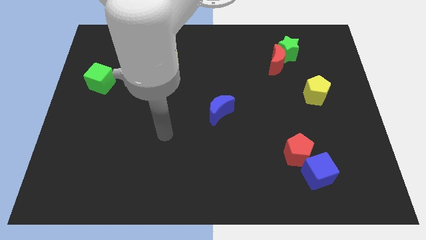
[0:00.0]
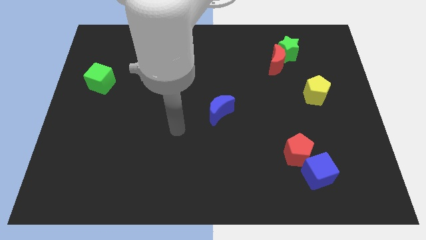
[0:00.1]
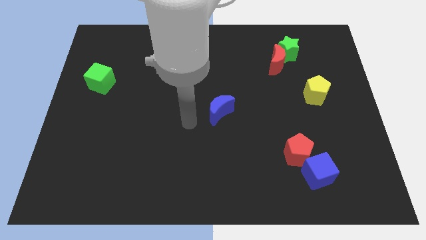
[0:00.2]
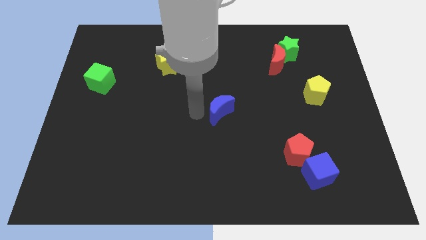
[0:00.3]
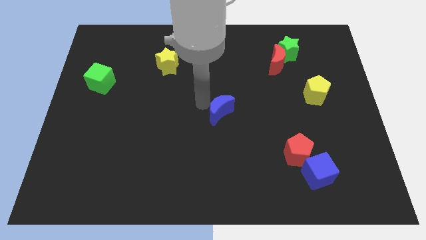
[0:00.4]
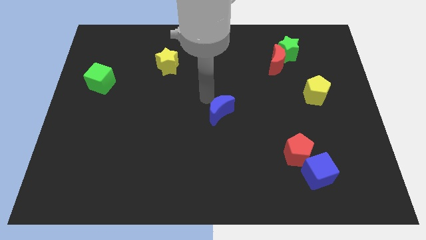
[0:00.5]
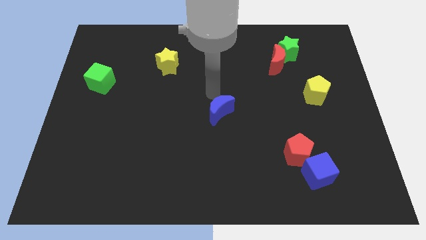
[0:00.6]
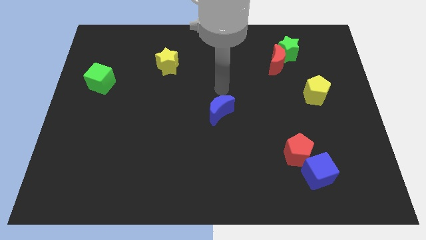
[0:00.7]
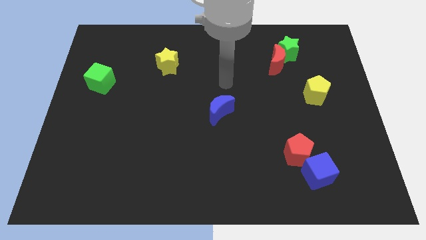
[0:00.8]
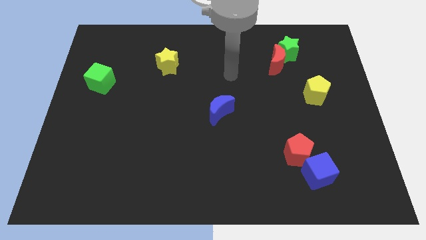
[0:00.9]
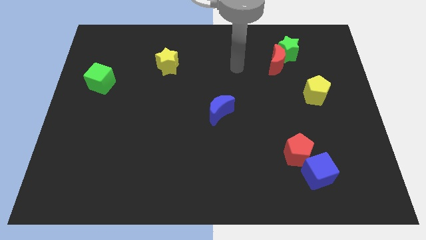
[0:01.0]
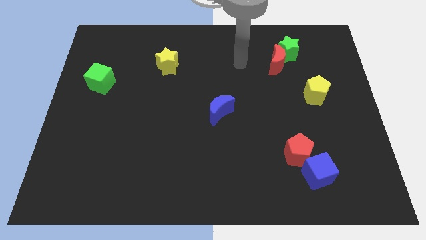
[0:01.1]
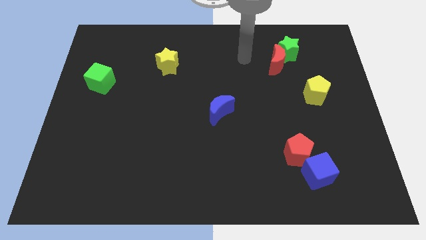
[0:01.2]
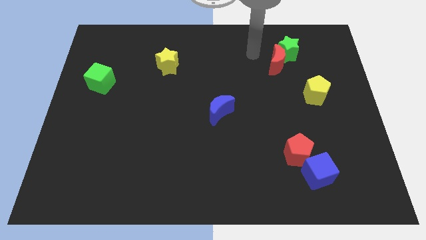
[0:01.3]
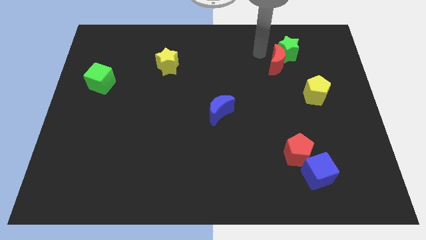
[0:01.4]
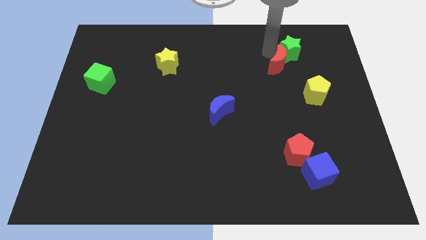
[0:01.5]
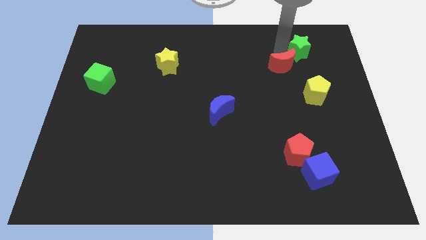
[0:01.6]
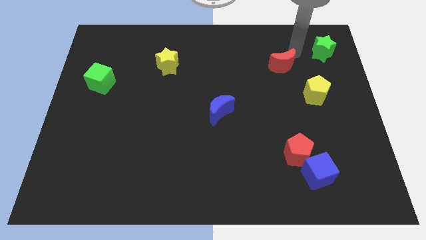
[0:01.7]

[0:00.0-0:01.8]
separate the red moon from the green star

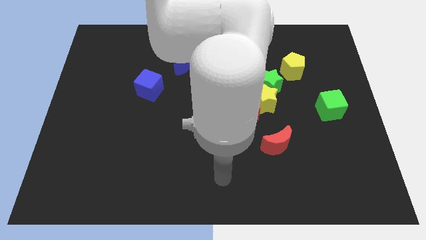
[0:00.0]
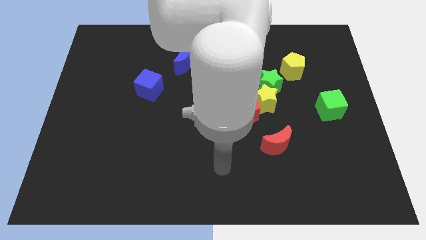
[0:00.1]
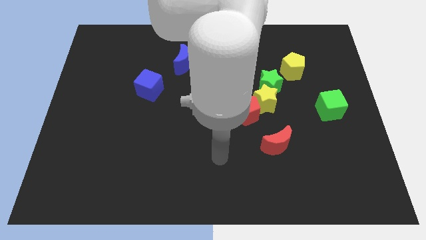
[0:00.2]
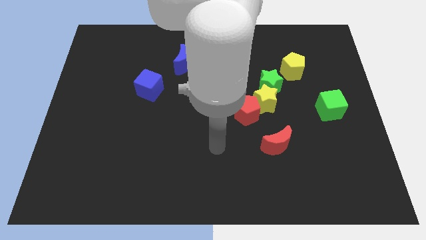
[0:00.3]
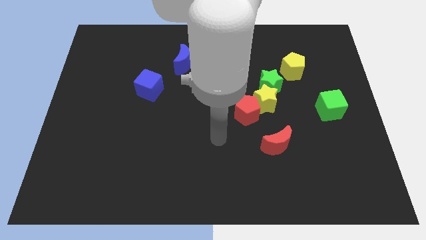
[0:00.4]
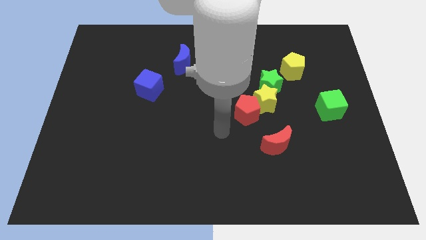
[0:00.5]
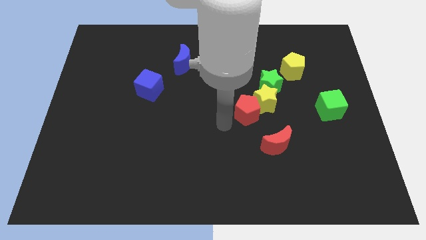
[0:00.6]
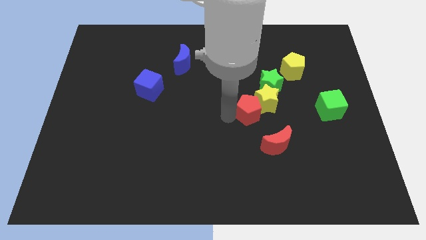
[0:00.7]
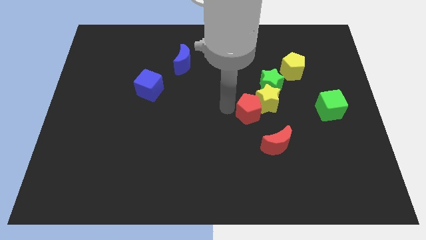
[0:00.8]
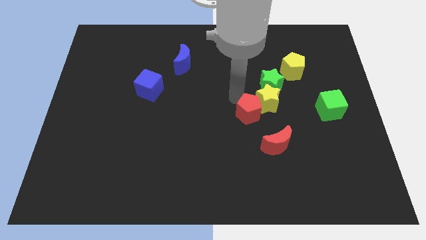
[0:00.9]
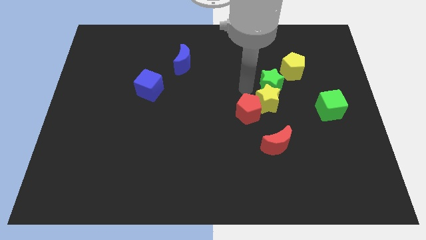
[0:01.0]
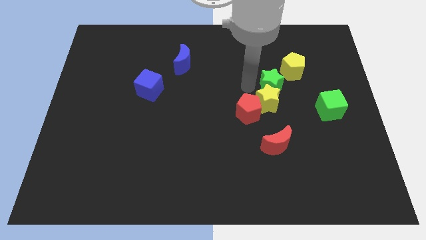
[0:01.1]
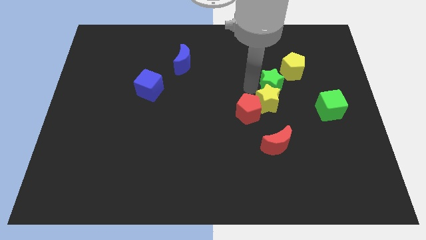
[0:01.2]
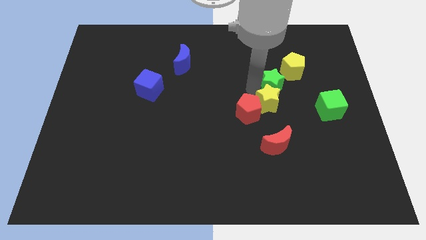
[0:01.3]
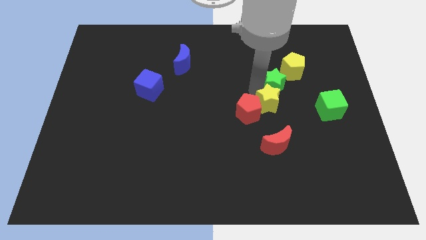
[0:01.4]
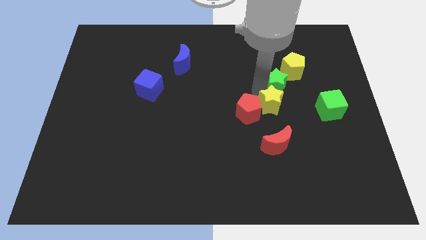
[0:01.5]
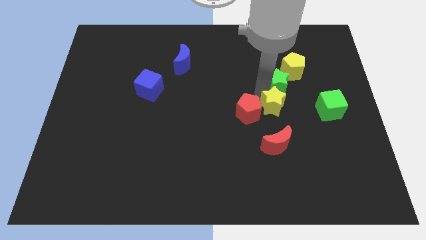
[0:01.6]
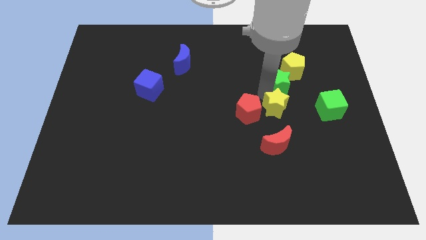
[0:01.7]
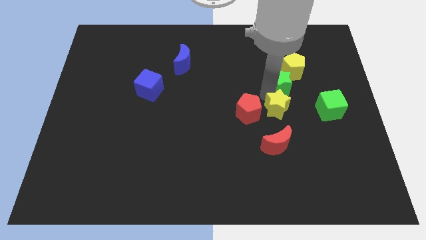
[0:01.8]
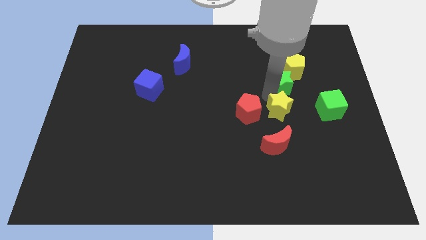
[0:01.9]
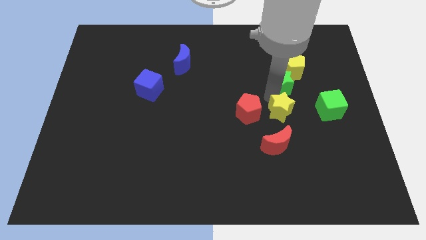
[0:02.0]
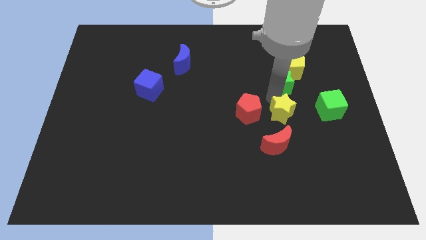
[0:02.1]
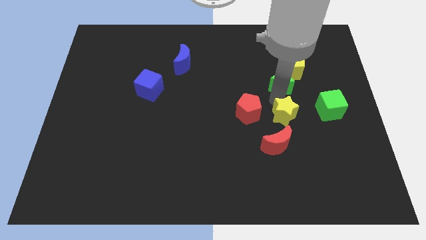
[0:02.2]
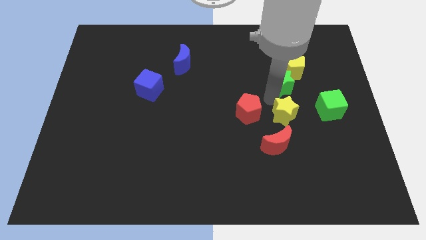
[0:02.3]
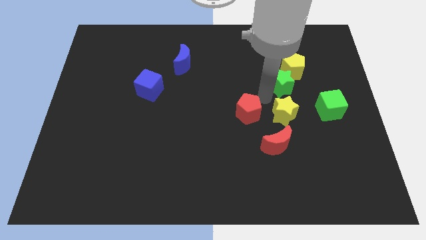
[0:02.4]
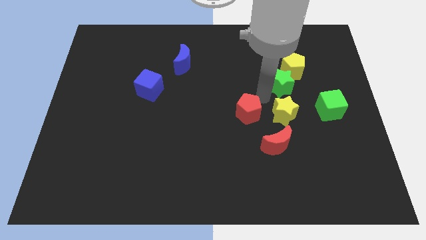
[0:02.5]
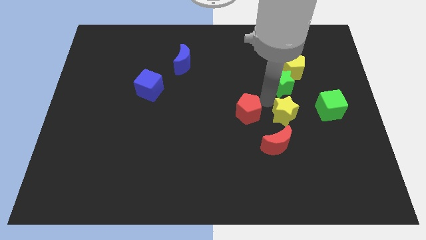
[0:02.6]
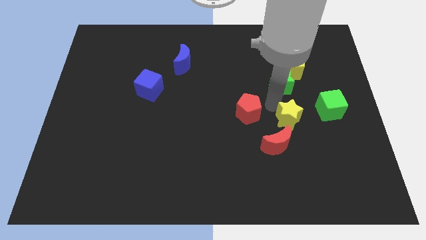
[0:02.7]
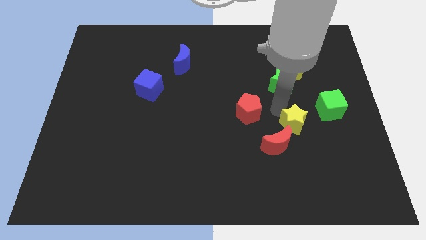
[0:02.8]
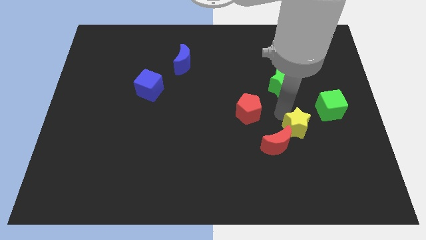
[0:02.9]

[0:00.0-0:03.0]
pull the yellow star apart from the green star and red pentagon

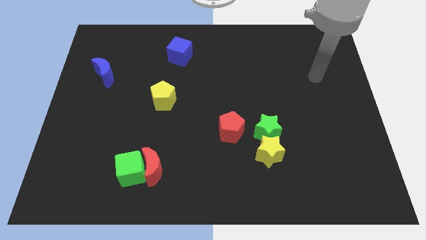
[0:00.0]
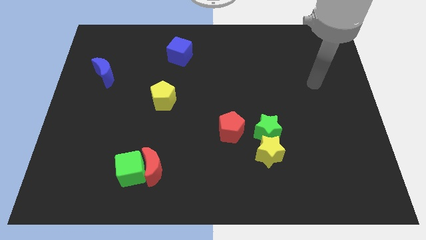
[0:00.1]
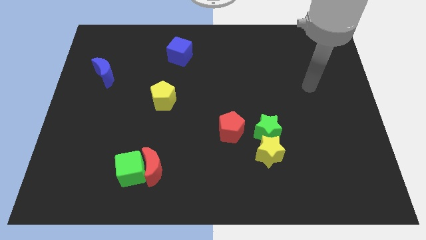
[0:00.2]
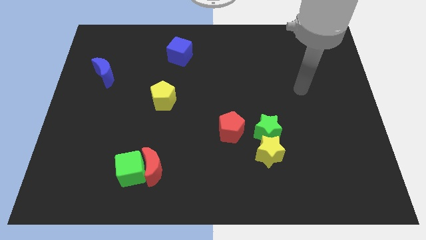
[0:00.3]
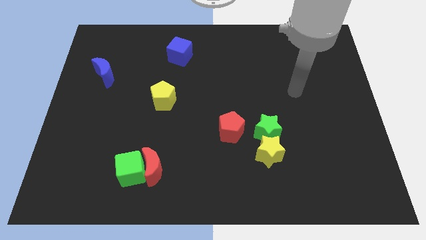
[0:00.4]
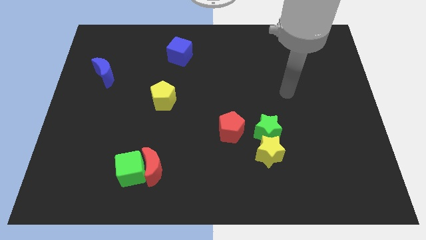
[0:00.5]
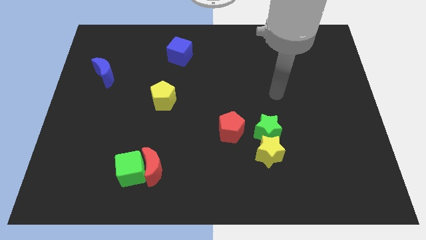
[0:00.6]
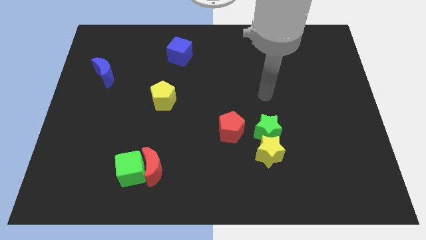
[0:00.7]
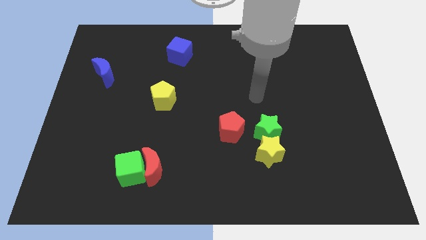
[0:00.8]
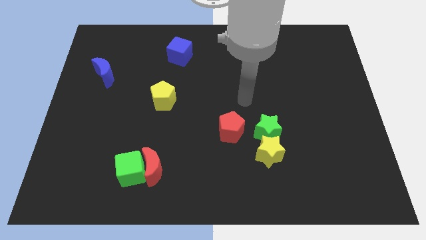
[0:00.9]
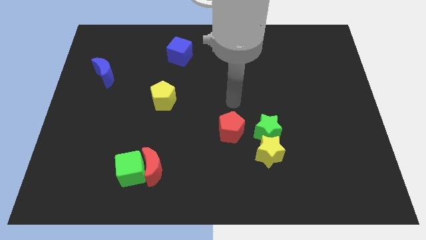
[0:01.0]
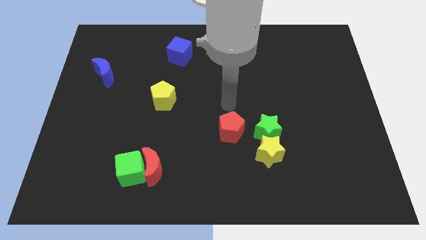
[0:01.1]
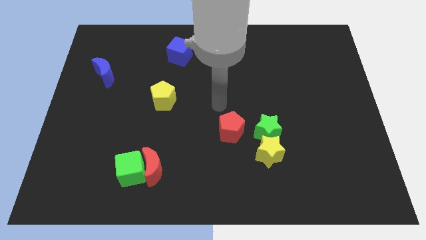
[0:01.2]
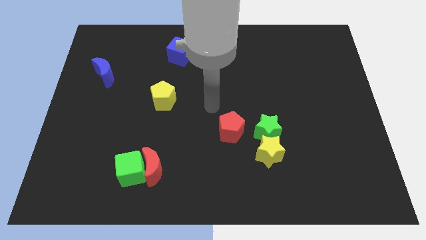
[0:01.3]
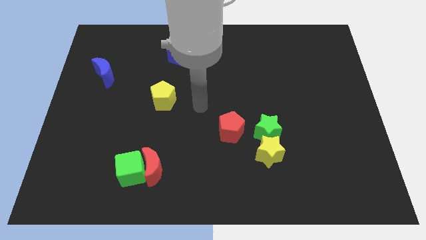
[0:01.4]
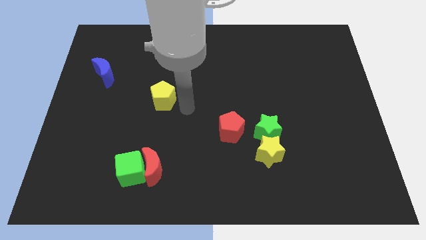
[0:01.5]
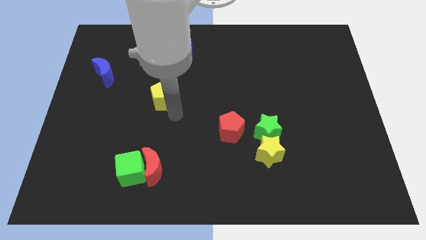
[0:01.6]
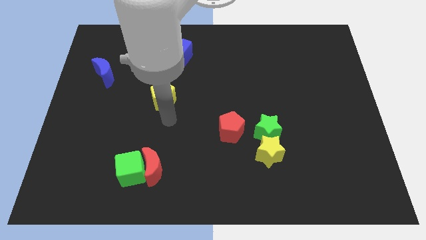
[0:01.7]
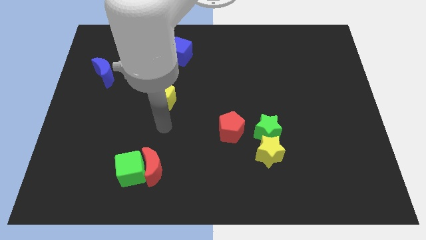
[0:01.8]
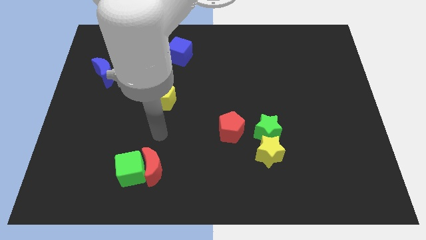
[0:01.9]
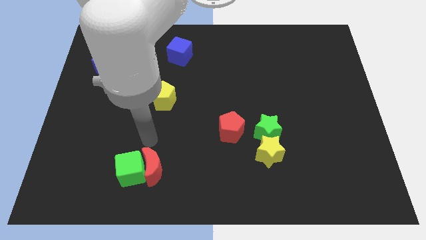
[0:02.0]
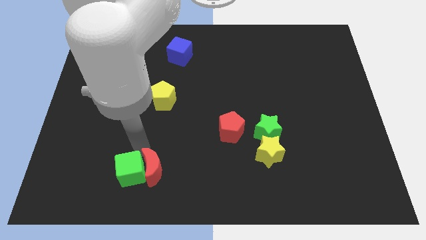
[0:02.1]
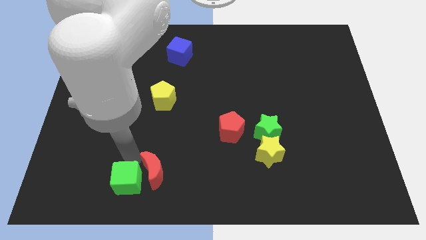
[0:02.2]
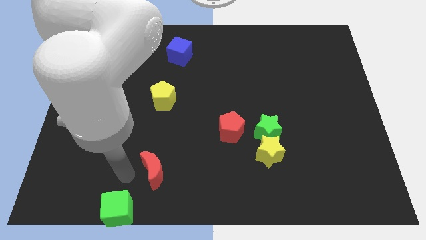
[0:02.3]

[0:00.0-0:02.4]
pull the red moon apart from the green cube

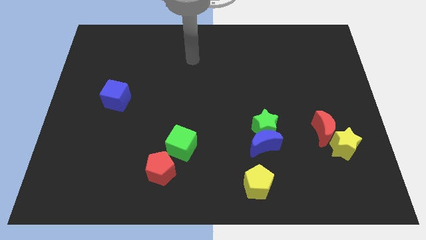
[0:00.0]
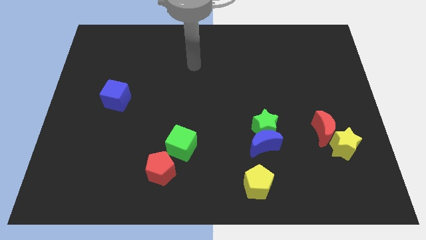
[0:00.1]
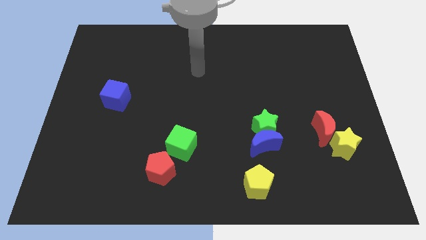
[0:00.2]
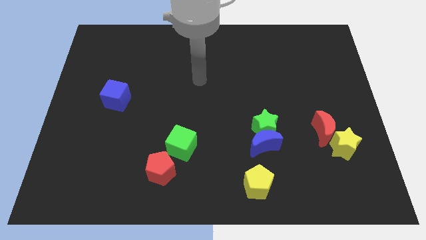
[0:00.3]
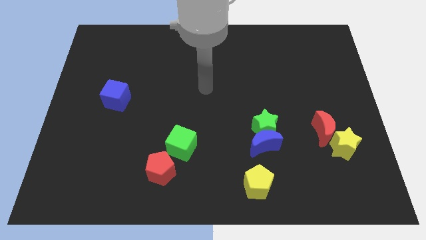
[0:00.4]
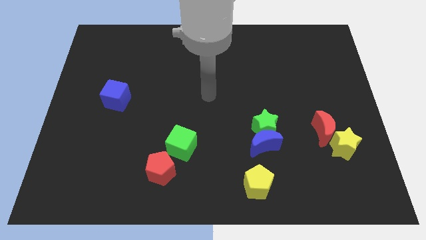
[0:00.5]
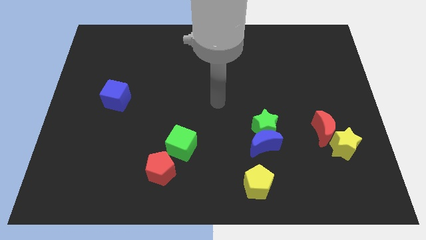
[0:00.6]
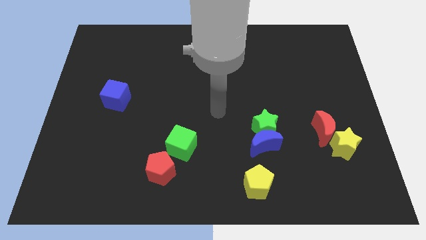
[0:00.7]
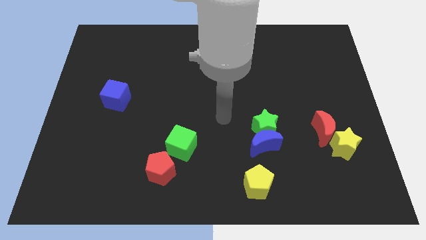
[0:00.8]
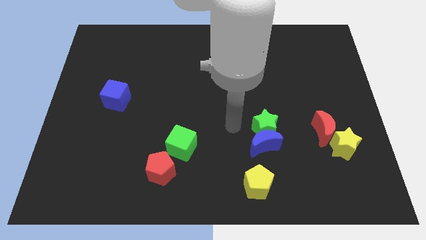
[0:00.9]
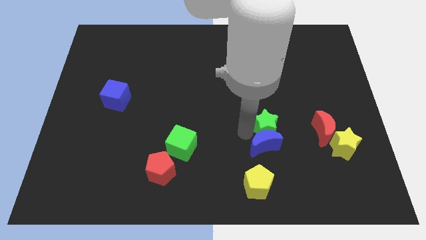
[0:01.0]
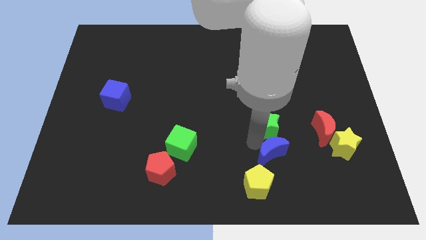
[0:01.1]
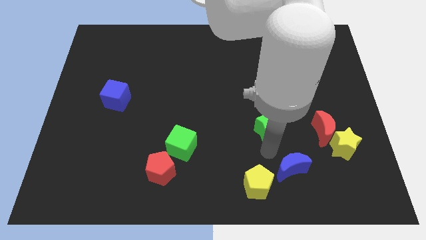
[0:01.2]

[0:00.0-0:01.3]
pull the green star apart from the blue moon

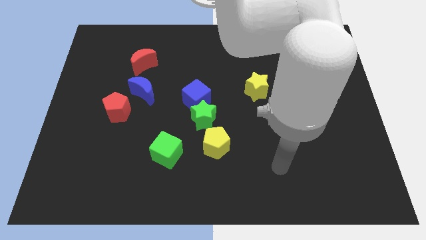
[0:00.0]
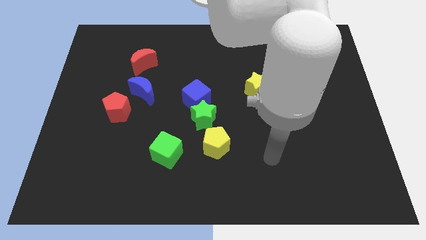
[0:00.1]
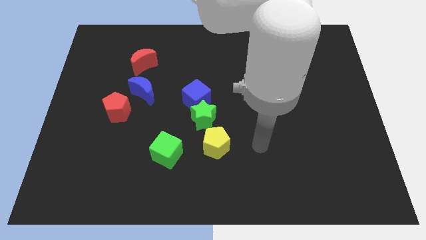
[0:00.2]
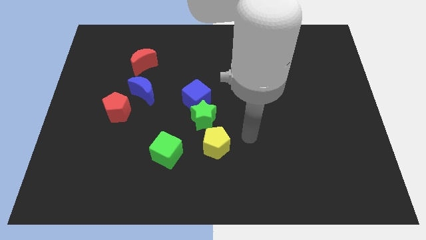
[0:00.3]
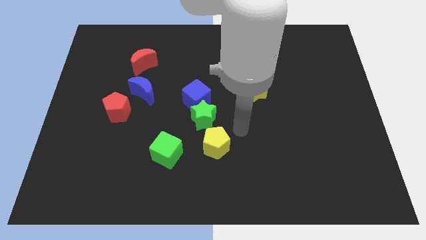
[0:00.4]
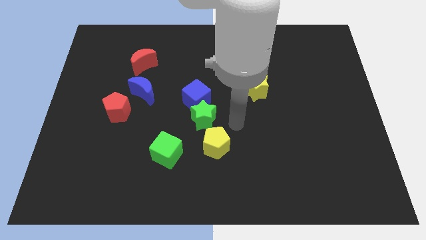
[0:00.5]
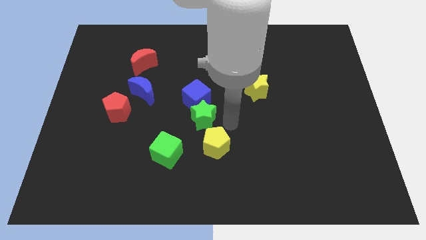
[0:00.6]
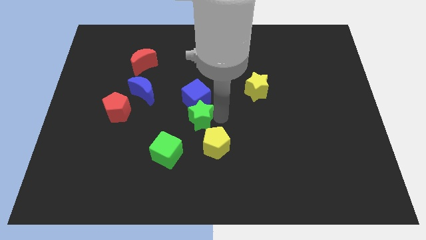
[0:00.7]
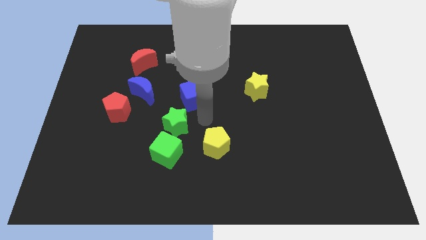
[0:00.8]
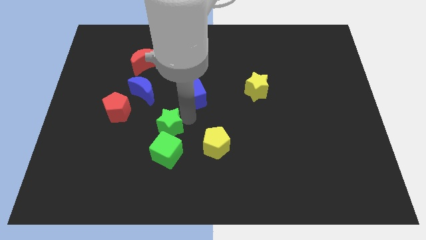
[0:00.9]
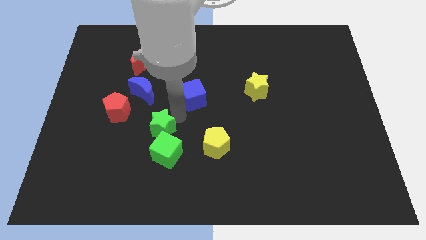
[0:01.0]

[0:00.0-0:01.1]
move the blue cube away from the green star
